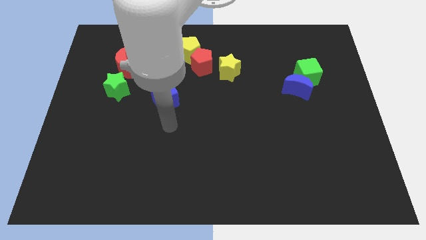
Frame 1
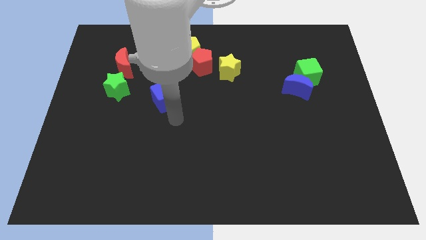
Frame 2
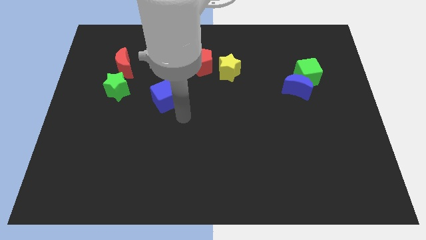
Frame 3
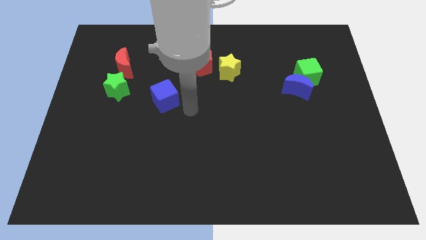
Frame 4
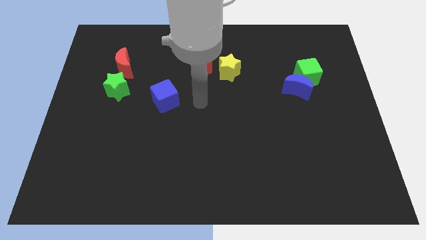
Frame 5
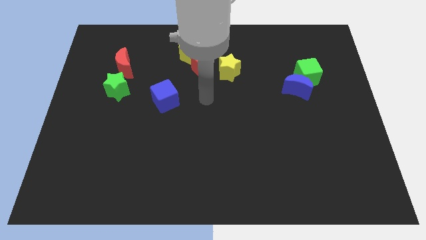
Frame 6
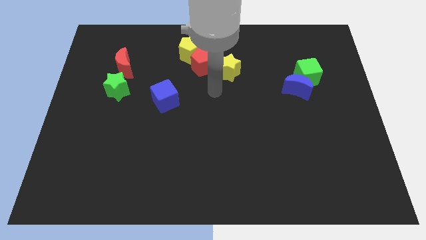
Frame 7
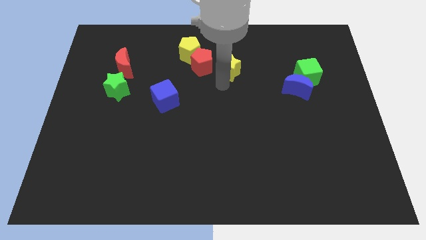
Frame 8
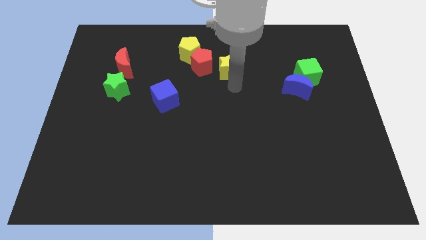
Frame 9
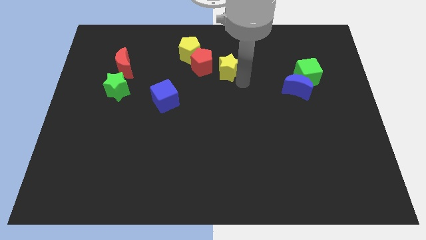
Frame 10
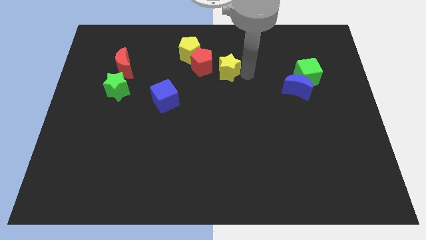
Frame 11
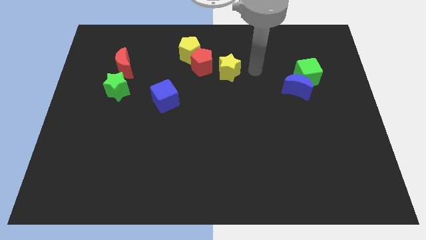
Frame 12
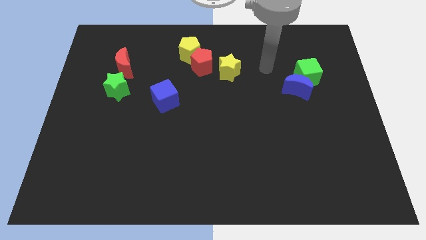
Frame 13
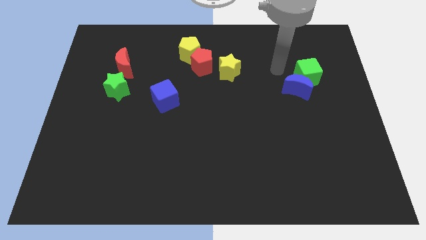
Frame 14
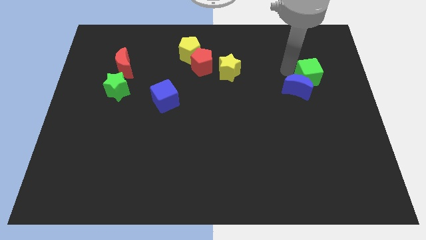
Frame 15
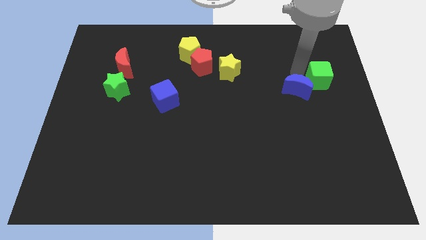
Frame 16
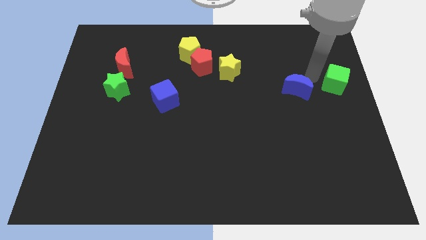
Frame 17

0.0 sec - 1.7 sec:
move the blue moon away from the green cube

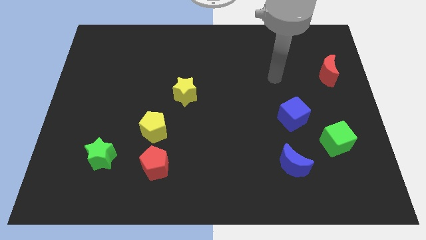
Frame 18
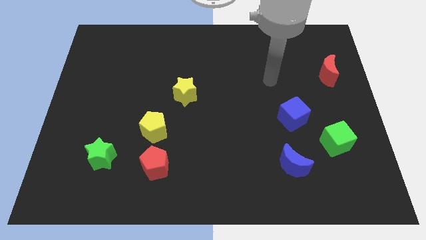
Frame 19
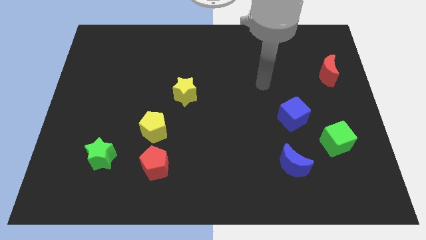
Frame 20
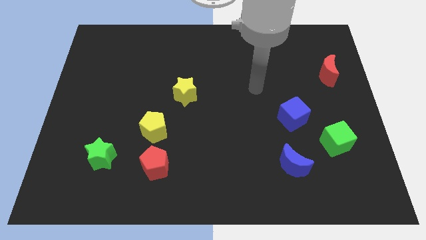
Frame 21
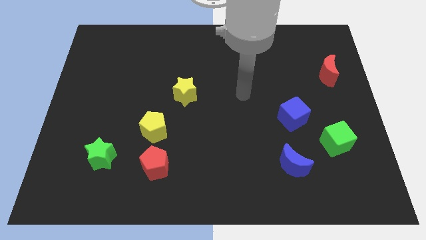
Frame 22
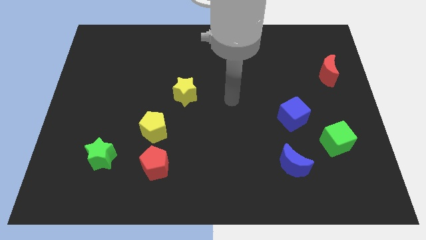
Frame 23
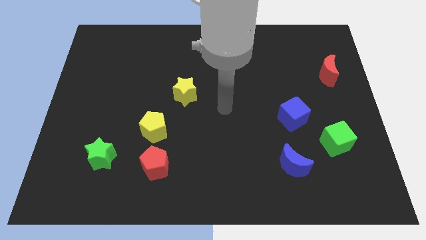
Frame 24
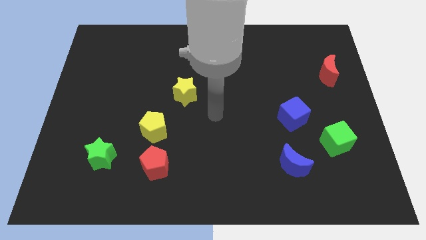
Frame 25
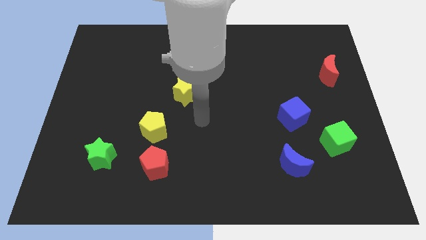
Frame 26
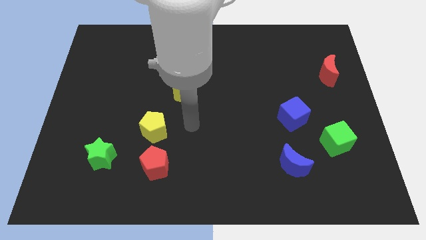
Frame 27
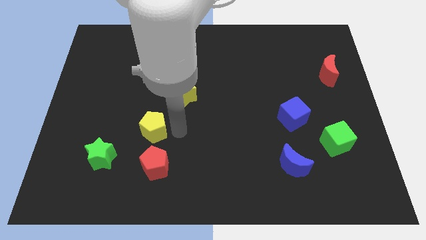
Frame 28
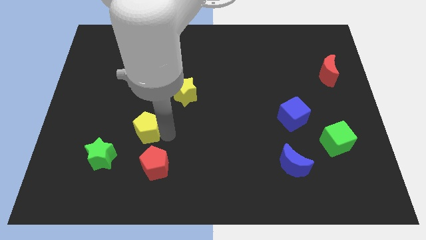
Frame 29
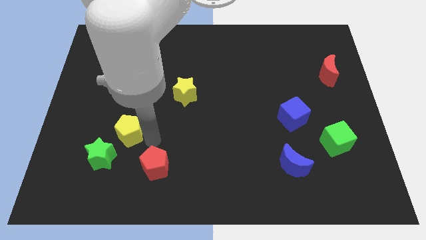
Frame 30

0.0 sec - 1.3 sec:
separate the red pentagon from the yellow pentagon

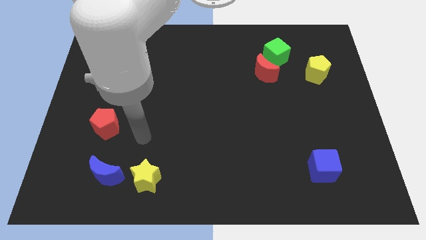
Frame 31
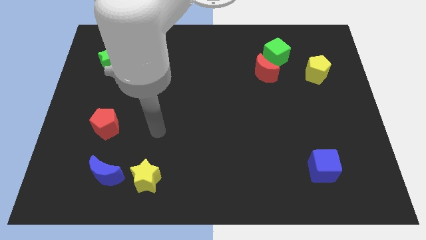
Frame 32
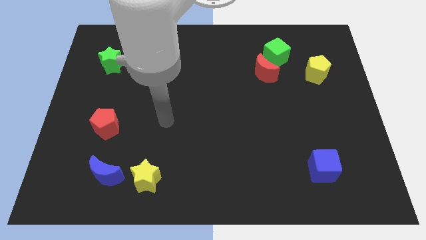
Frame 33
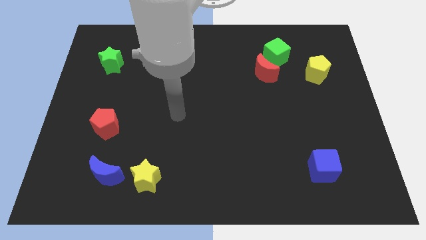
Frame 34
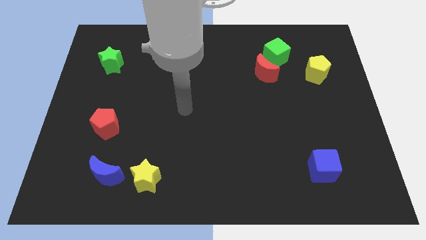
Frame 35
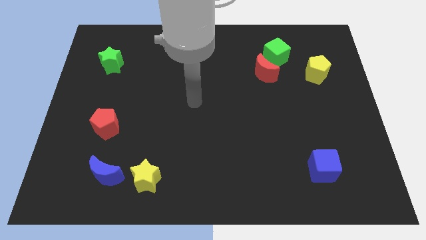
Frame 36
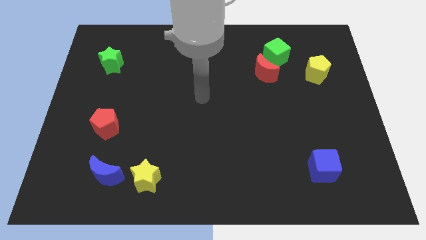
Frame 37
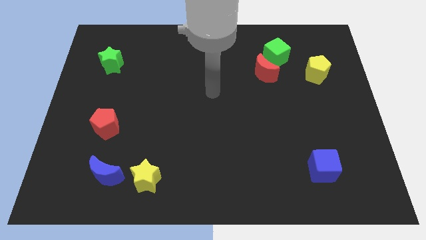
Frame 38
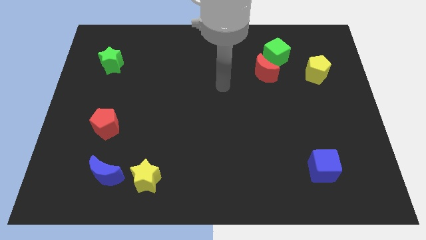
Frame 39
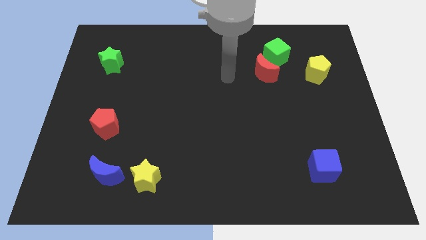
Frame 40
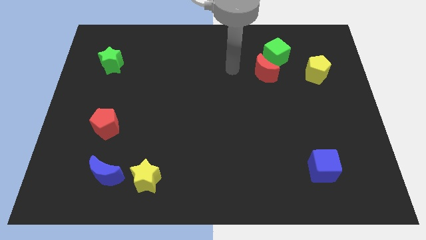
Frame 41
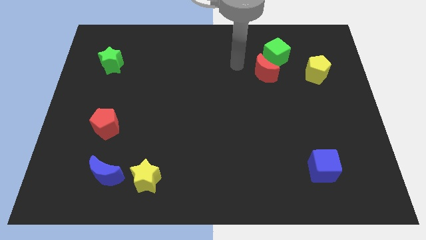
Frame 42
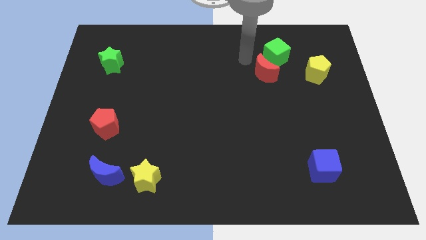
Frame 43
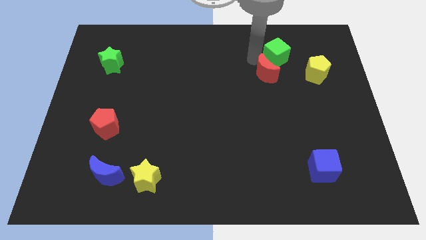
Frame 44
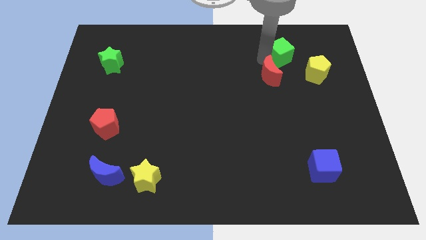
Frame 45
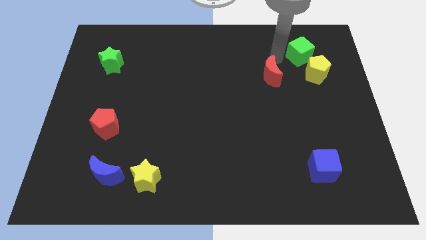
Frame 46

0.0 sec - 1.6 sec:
move the red moon away from the green cube

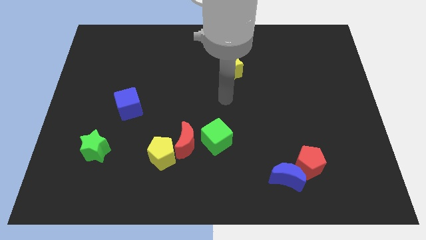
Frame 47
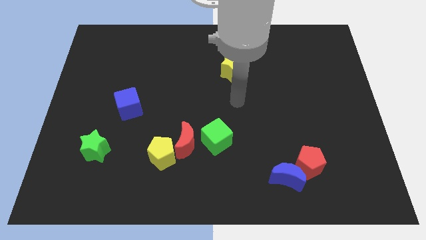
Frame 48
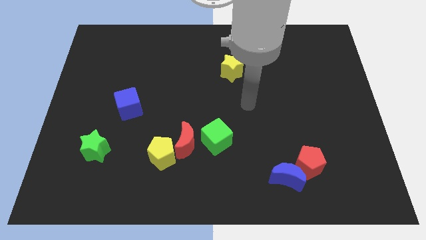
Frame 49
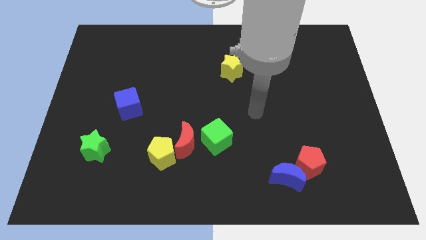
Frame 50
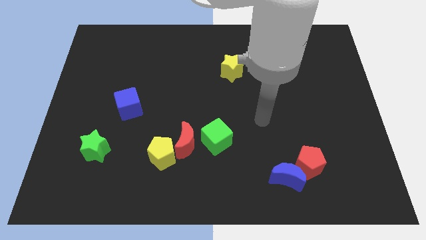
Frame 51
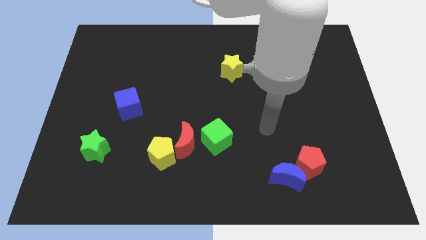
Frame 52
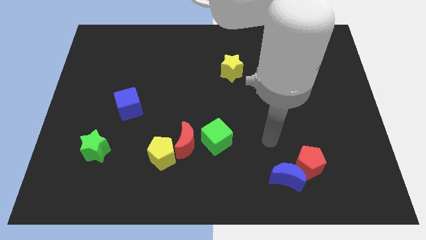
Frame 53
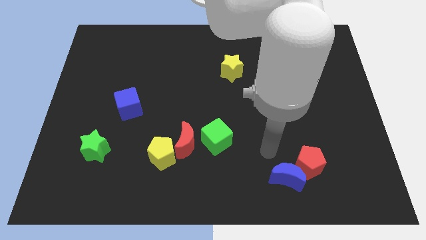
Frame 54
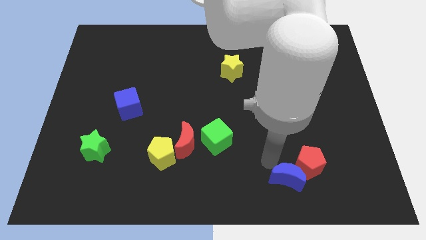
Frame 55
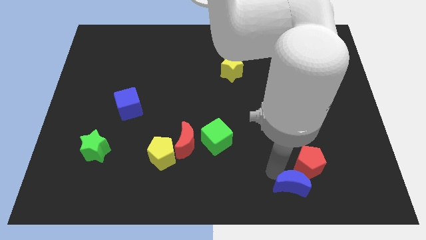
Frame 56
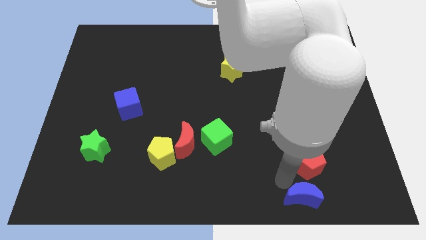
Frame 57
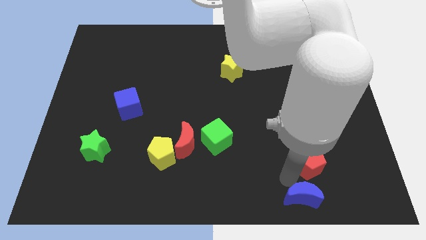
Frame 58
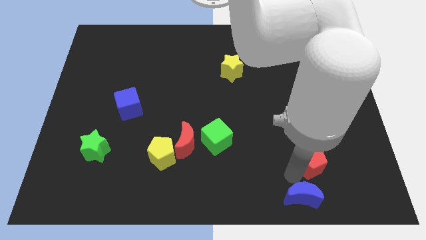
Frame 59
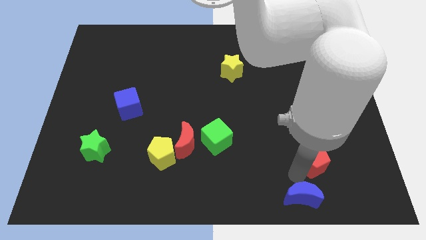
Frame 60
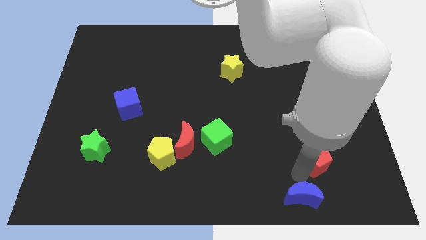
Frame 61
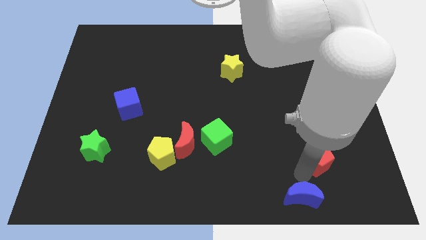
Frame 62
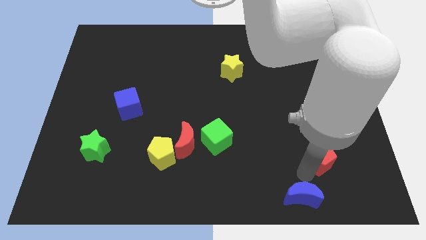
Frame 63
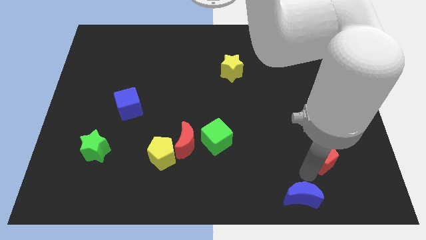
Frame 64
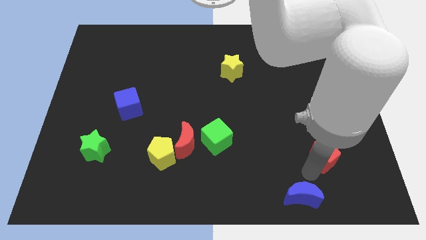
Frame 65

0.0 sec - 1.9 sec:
separate the red pentagon from the blue moon

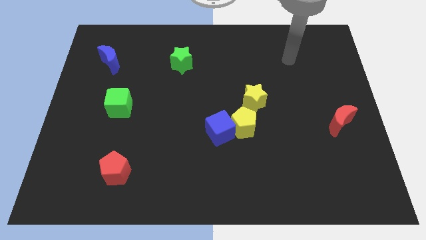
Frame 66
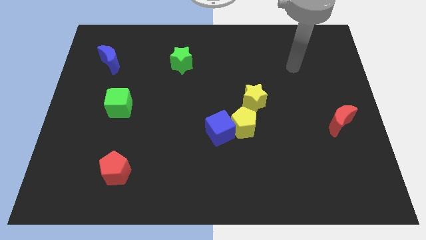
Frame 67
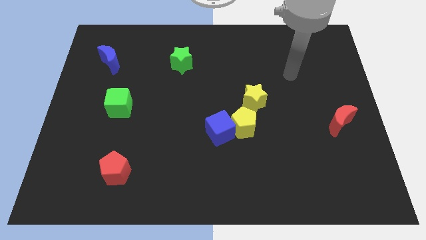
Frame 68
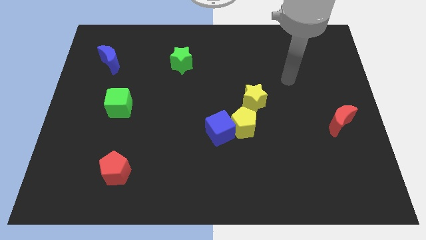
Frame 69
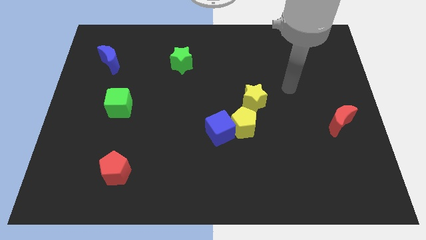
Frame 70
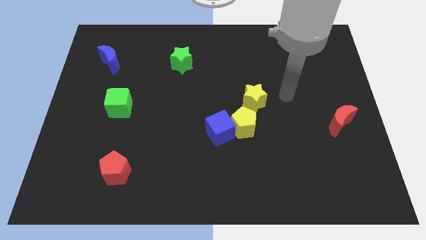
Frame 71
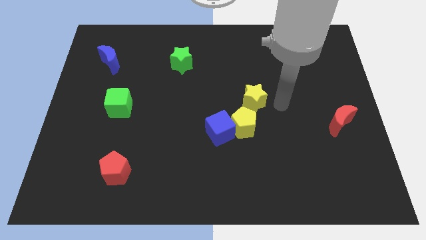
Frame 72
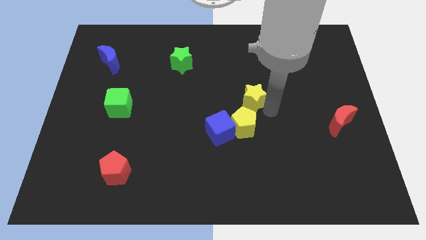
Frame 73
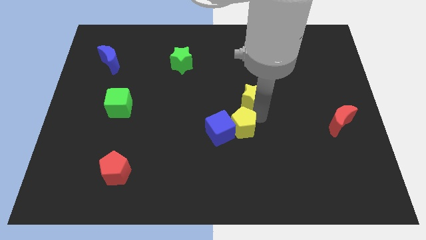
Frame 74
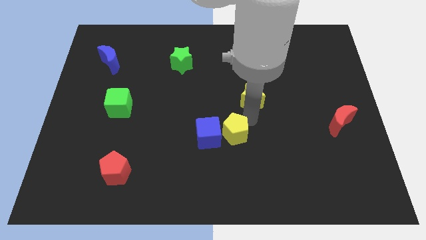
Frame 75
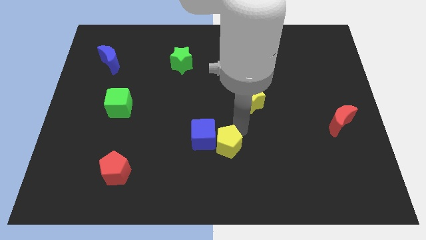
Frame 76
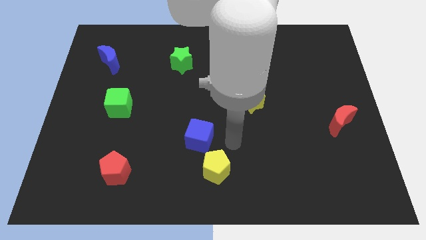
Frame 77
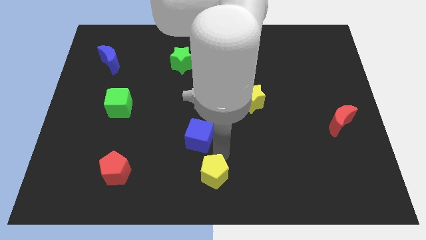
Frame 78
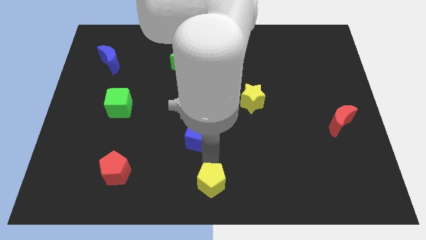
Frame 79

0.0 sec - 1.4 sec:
move the blue cube away from the yellow pentagon

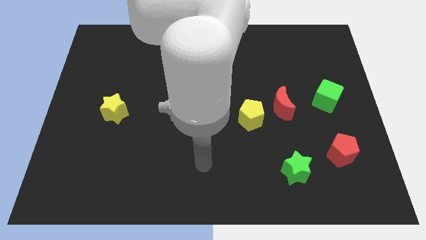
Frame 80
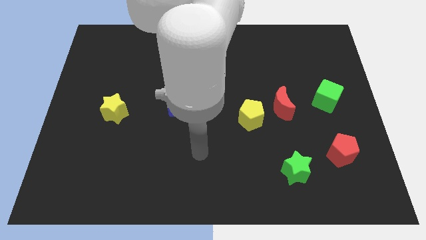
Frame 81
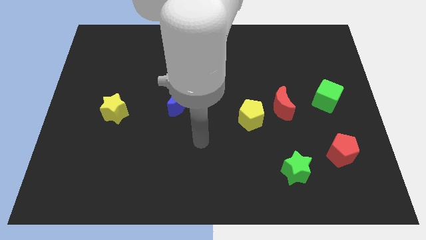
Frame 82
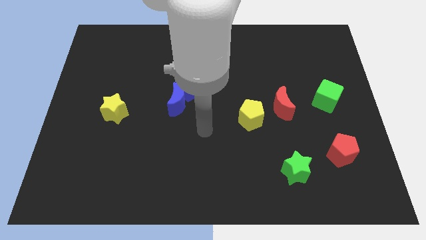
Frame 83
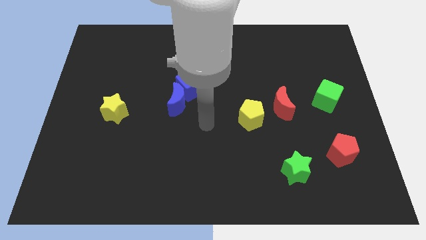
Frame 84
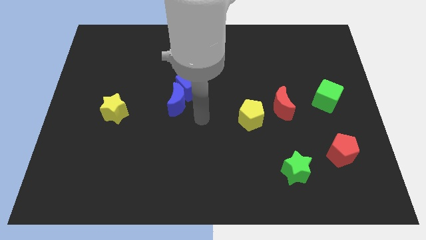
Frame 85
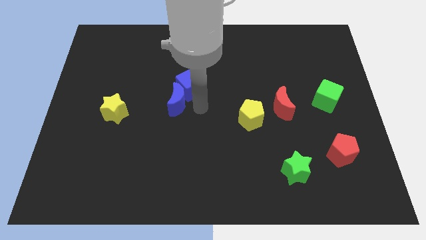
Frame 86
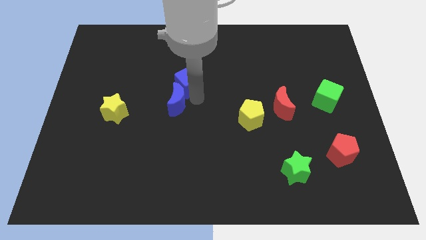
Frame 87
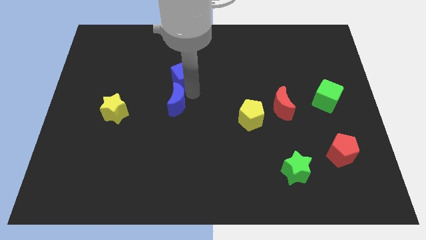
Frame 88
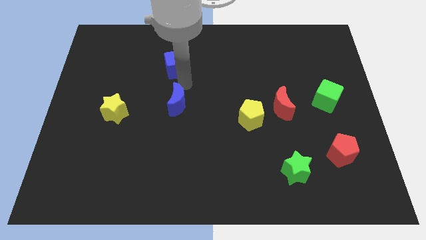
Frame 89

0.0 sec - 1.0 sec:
move the blue moon away from the blue cube

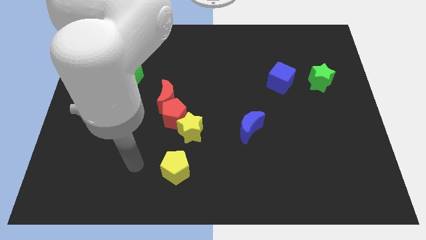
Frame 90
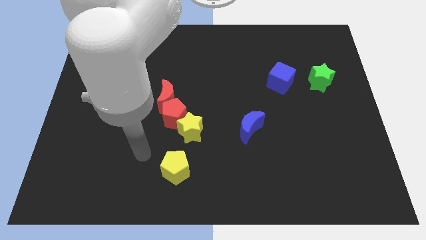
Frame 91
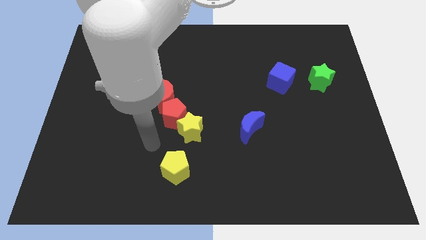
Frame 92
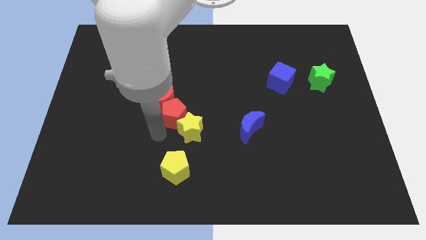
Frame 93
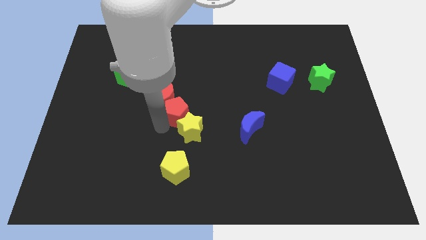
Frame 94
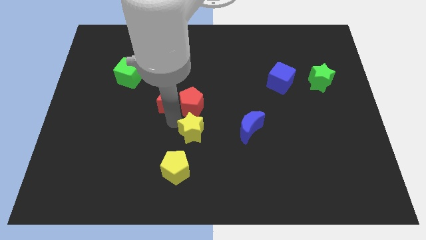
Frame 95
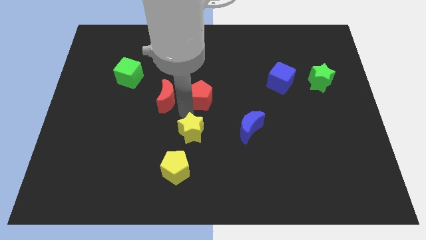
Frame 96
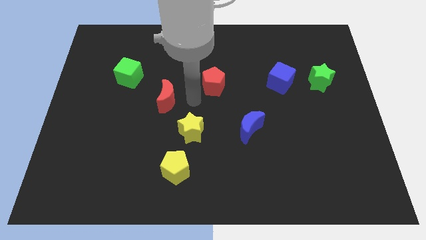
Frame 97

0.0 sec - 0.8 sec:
move the red moon away from the red pentagon
